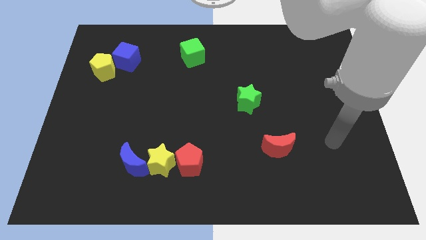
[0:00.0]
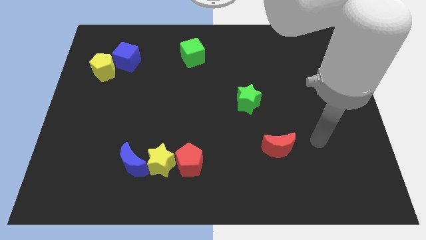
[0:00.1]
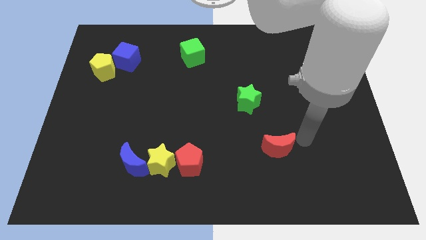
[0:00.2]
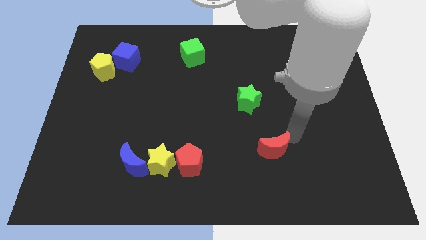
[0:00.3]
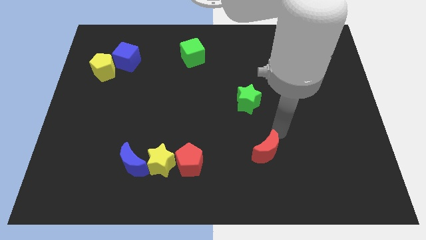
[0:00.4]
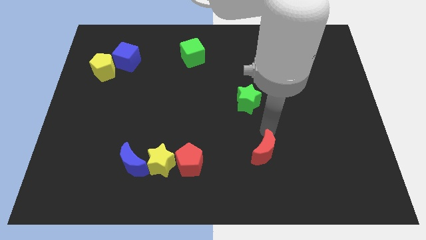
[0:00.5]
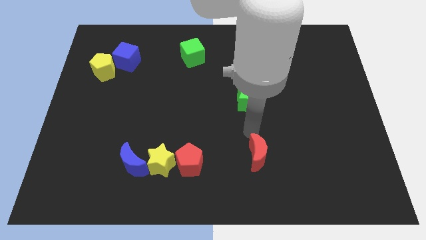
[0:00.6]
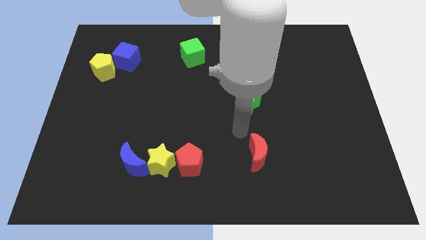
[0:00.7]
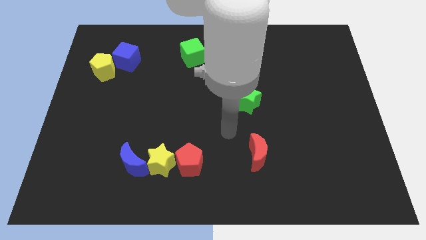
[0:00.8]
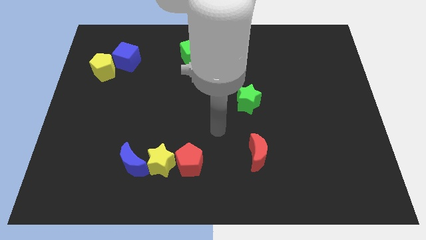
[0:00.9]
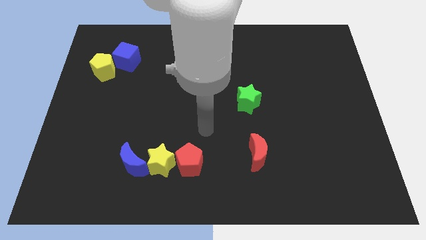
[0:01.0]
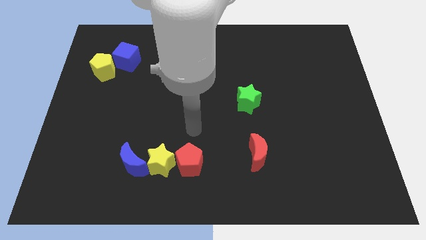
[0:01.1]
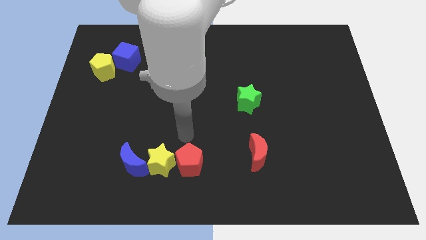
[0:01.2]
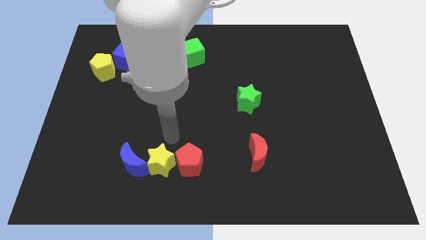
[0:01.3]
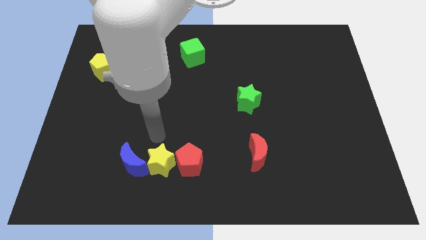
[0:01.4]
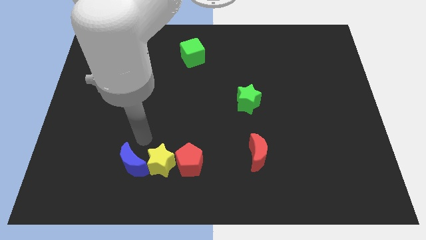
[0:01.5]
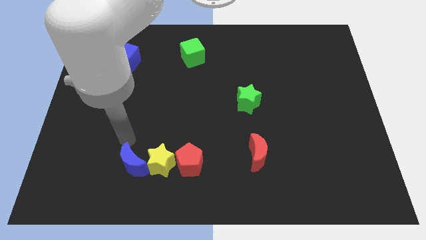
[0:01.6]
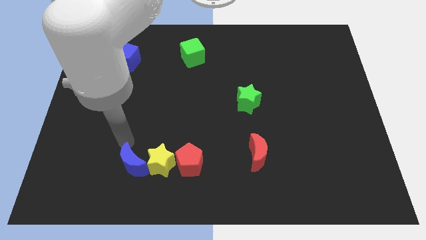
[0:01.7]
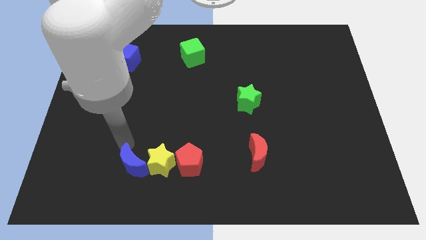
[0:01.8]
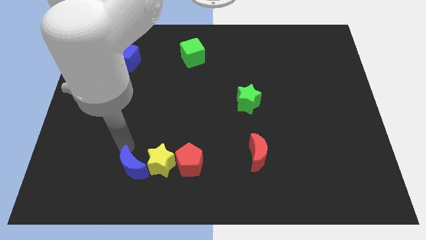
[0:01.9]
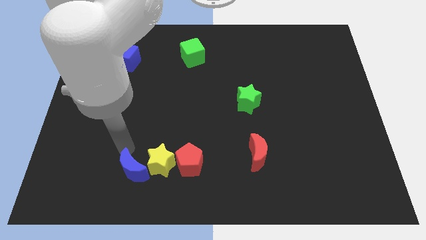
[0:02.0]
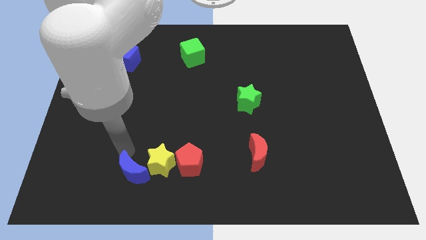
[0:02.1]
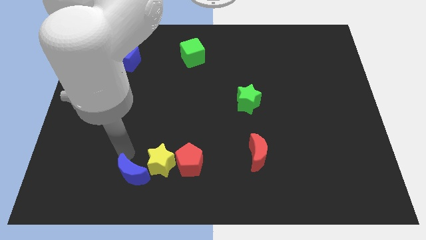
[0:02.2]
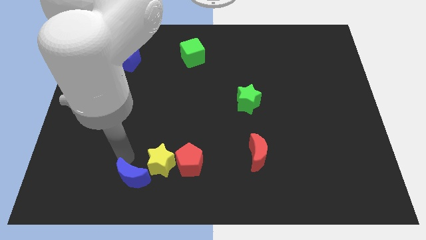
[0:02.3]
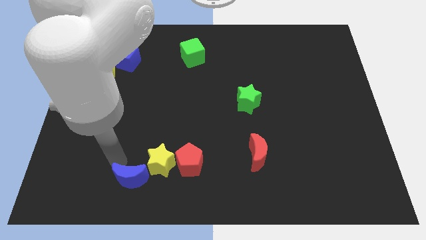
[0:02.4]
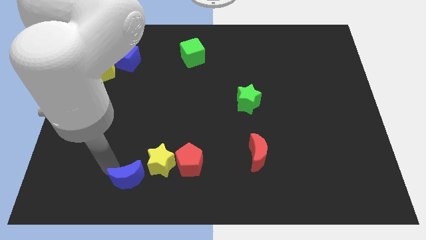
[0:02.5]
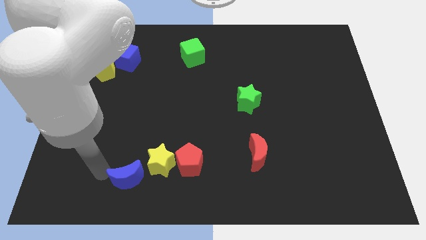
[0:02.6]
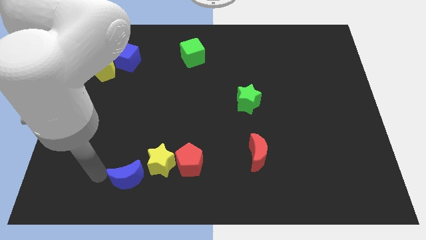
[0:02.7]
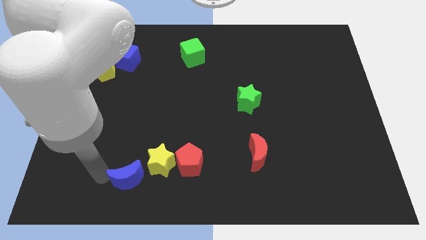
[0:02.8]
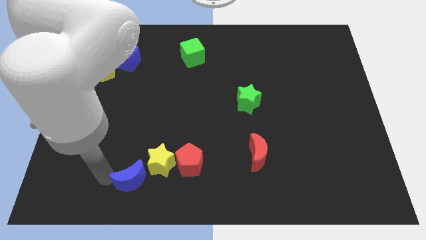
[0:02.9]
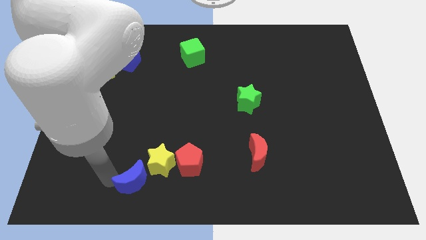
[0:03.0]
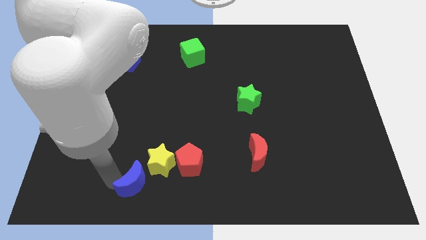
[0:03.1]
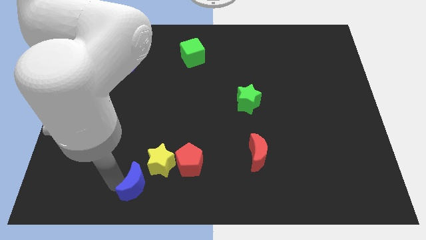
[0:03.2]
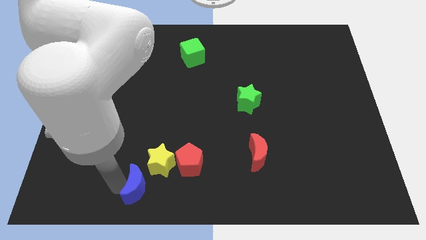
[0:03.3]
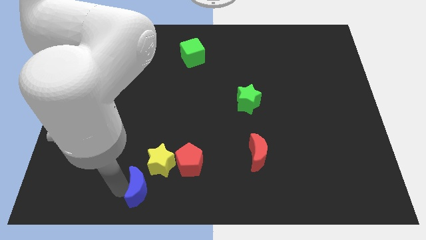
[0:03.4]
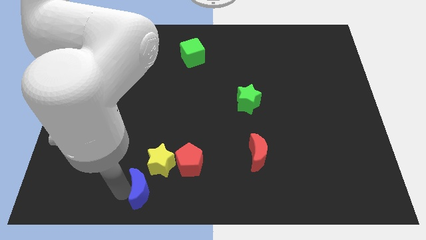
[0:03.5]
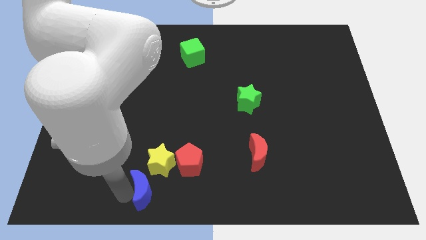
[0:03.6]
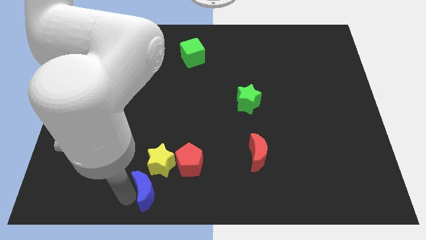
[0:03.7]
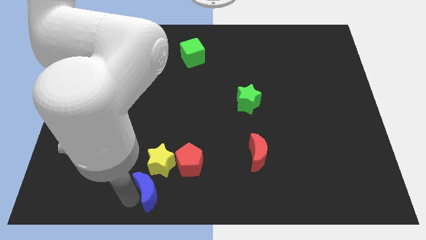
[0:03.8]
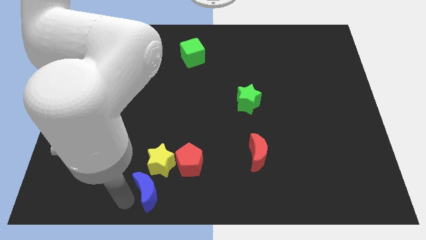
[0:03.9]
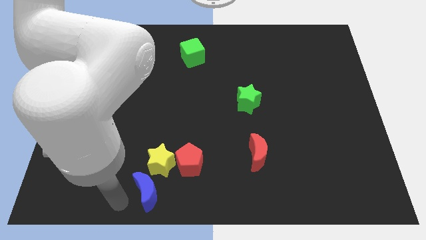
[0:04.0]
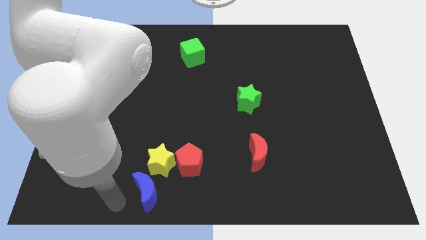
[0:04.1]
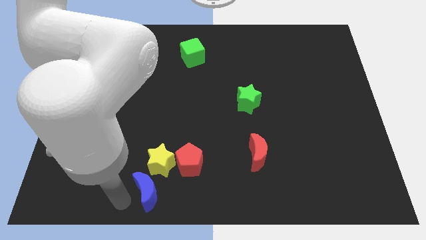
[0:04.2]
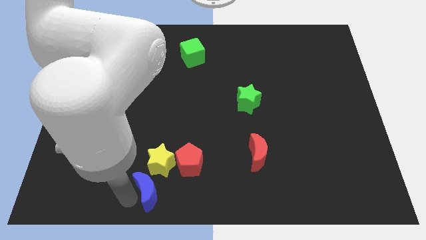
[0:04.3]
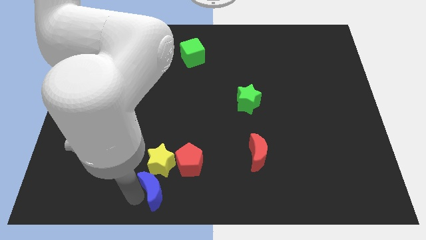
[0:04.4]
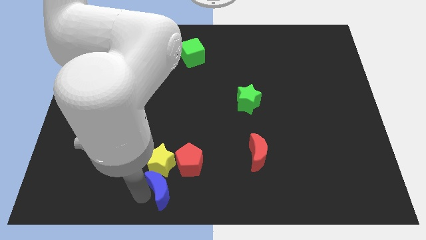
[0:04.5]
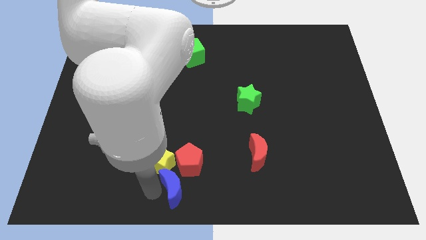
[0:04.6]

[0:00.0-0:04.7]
slightly push the blue moon to the right

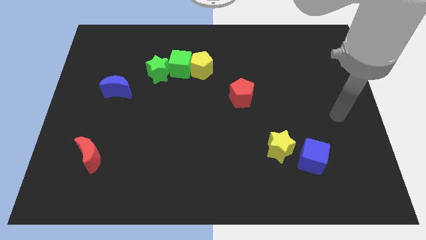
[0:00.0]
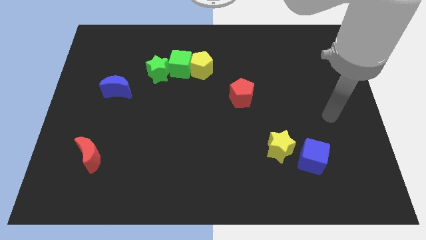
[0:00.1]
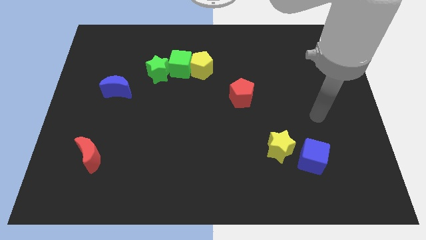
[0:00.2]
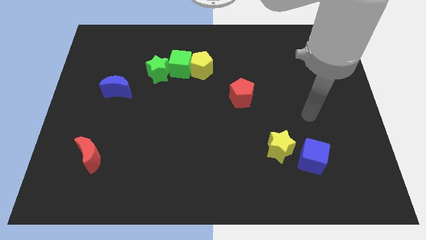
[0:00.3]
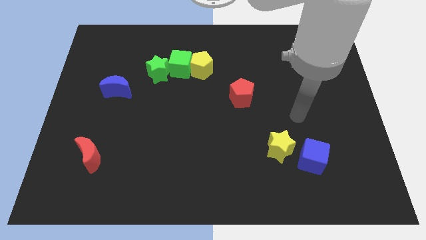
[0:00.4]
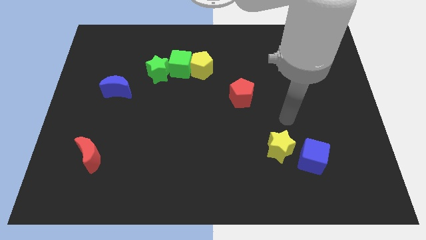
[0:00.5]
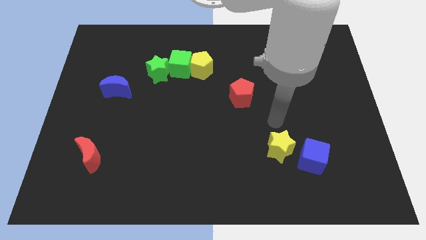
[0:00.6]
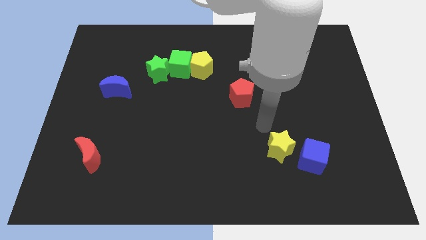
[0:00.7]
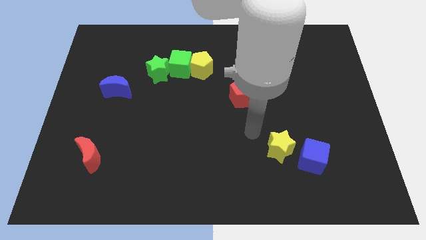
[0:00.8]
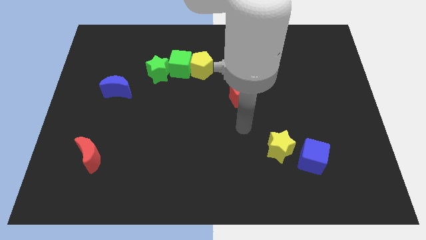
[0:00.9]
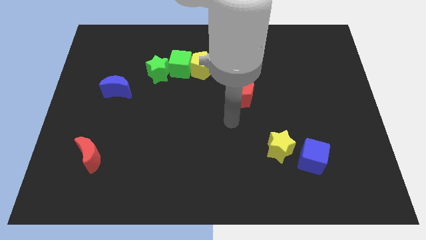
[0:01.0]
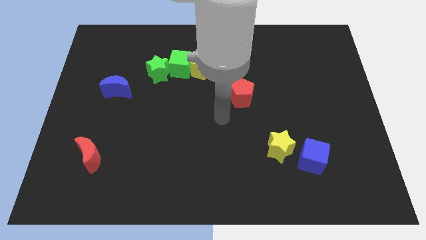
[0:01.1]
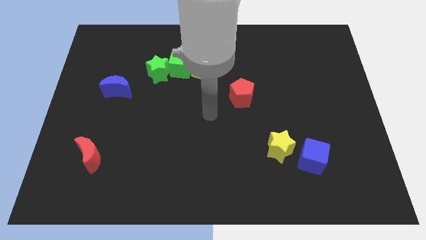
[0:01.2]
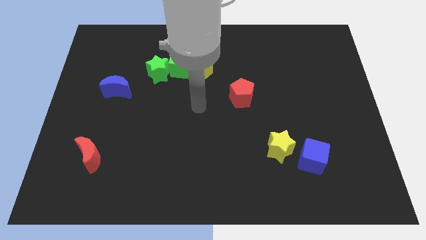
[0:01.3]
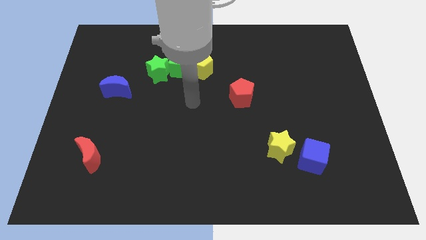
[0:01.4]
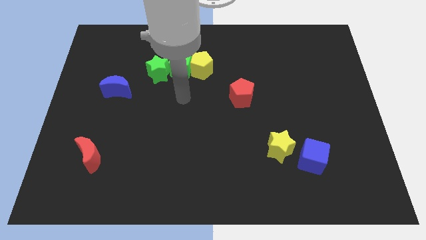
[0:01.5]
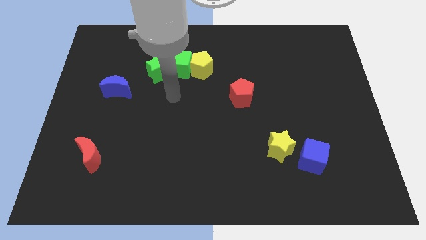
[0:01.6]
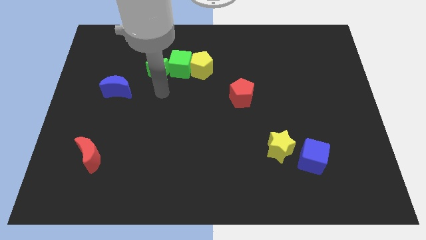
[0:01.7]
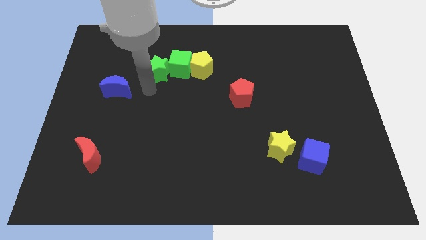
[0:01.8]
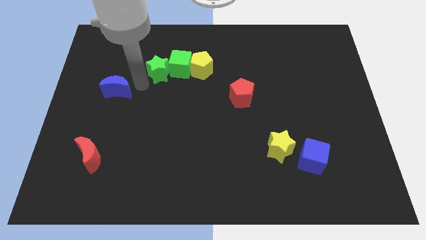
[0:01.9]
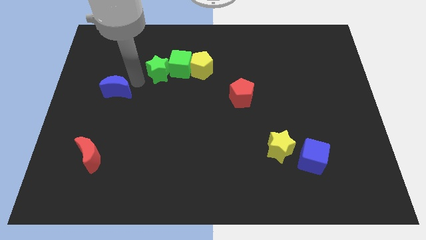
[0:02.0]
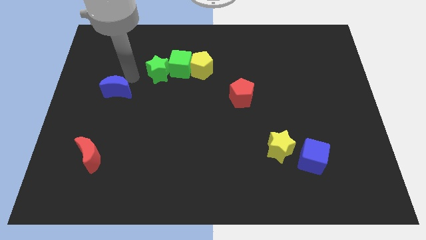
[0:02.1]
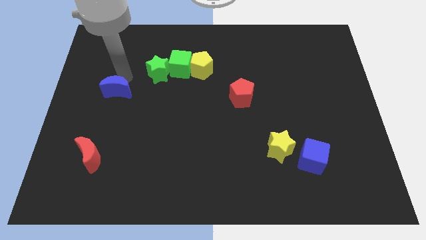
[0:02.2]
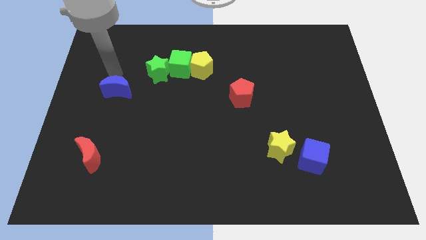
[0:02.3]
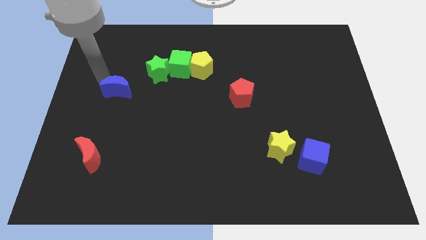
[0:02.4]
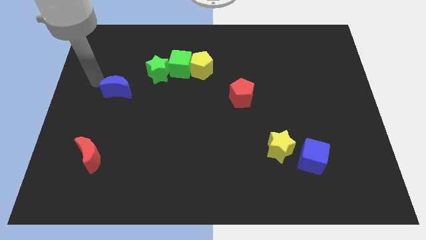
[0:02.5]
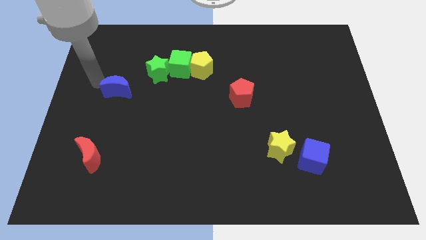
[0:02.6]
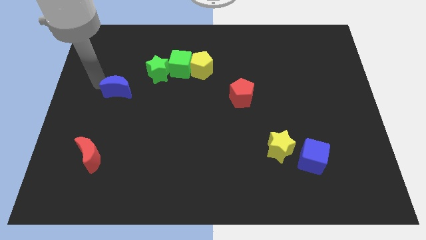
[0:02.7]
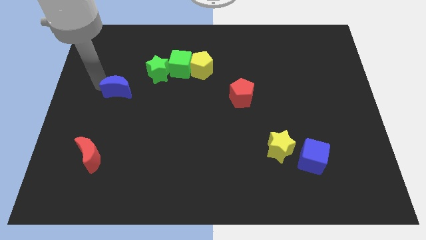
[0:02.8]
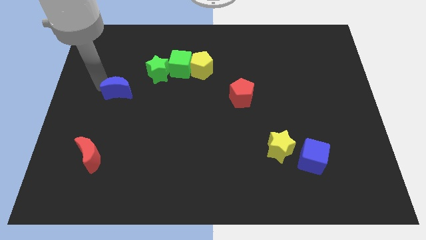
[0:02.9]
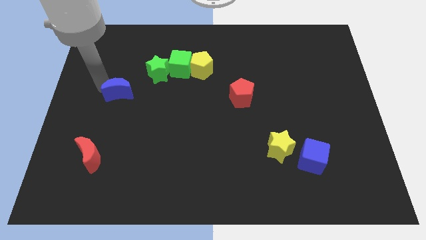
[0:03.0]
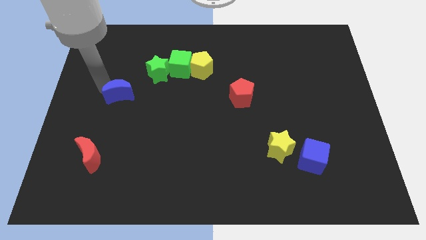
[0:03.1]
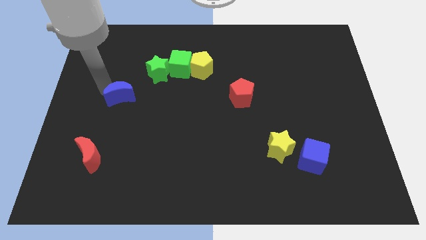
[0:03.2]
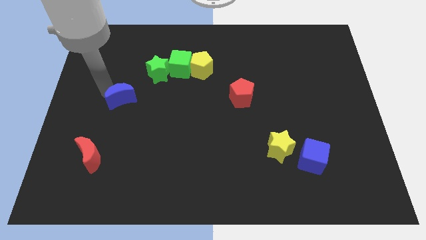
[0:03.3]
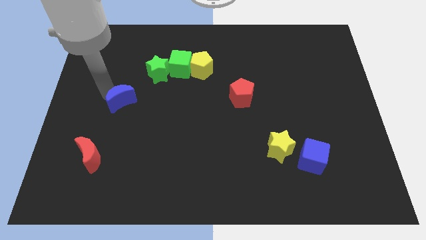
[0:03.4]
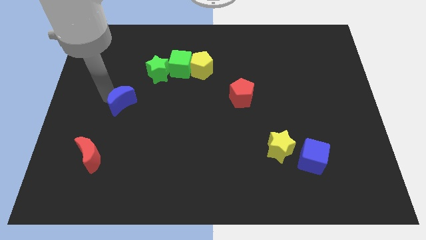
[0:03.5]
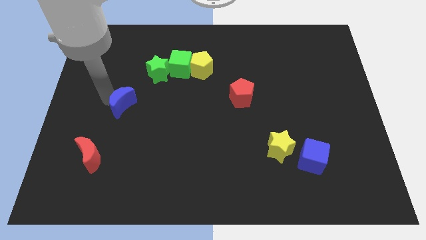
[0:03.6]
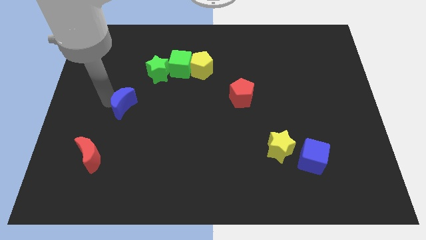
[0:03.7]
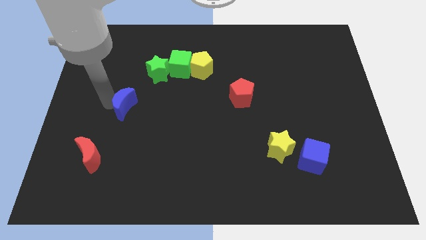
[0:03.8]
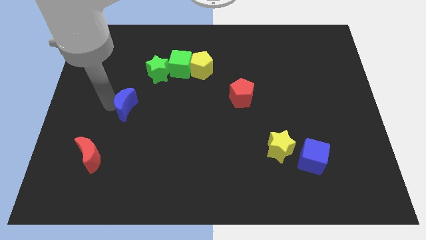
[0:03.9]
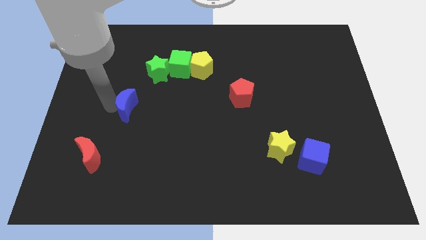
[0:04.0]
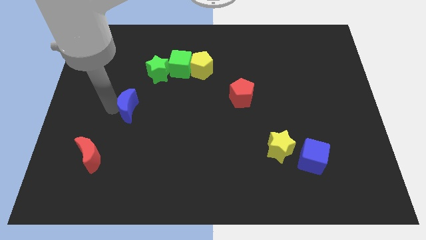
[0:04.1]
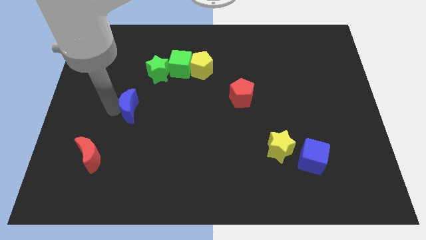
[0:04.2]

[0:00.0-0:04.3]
move the blue moon a little bit diagonally down and to the right
